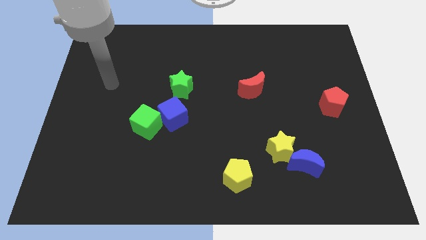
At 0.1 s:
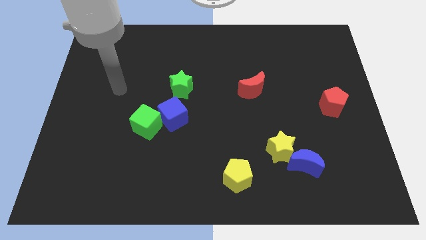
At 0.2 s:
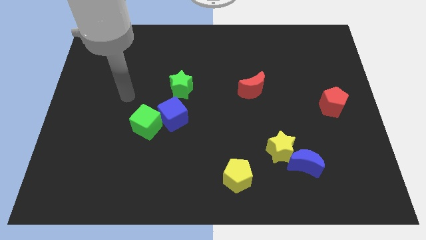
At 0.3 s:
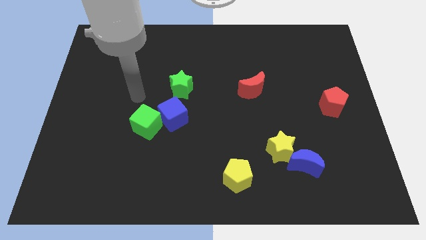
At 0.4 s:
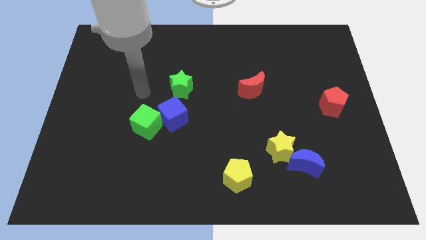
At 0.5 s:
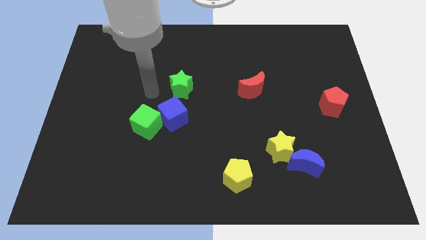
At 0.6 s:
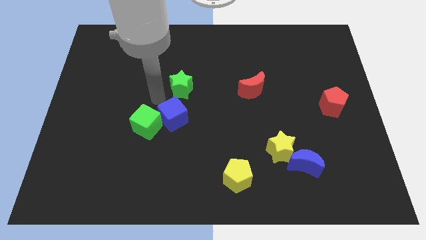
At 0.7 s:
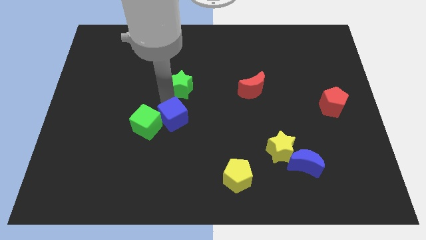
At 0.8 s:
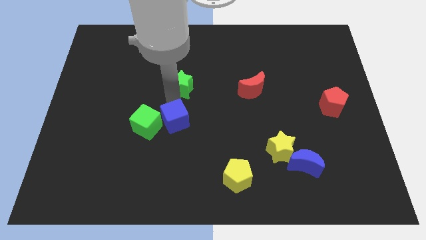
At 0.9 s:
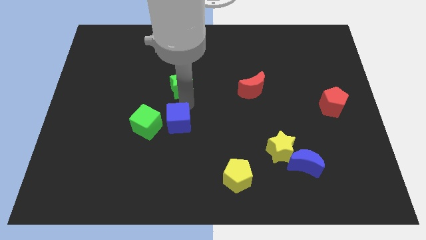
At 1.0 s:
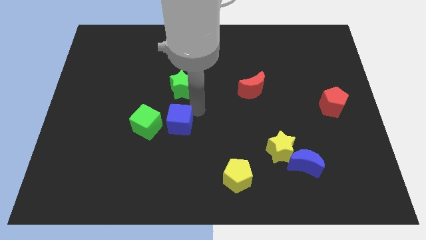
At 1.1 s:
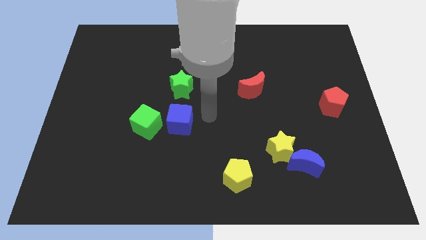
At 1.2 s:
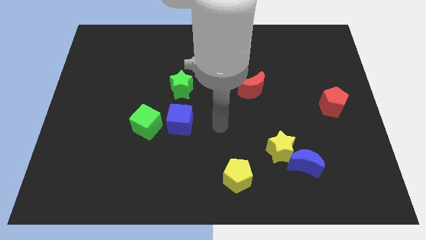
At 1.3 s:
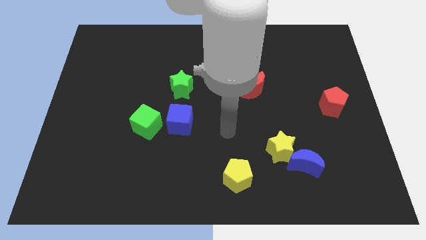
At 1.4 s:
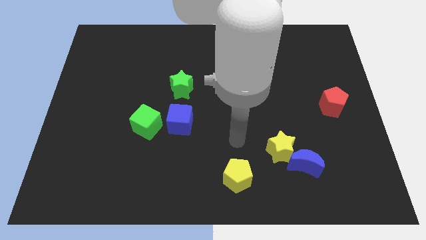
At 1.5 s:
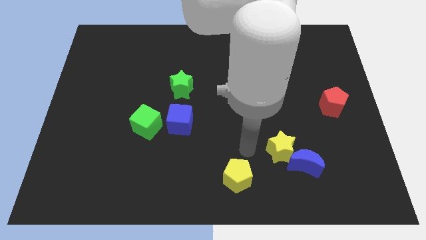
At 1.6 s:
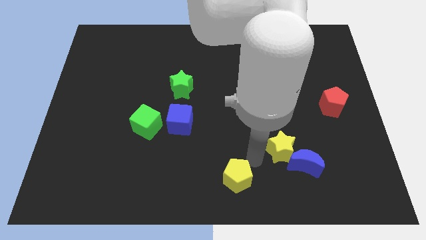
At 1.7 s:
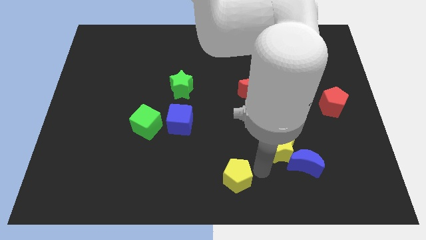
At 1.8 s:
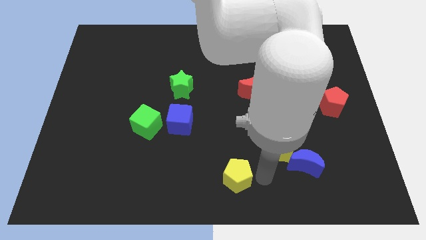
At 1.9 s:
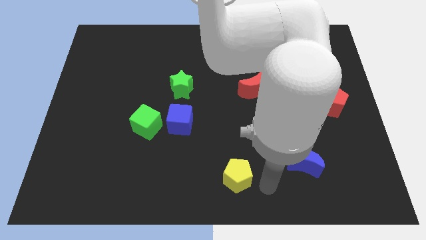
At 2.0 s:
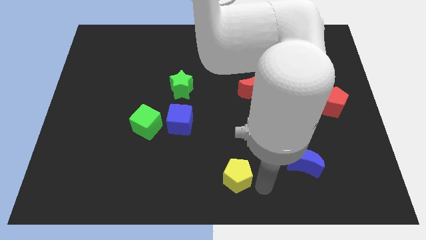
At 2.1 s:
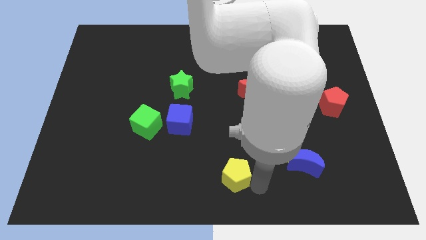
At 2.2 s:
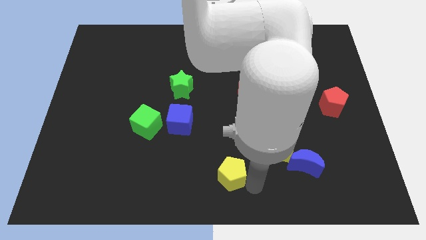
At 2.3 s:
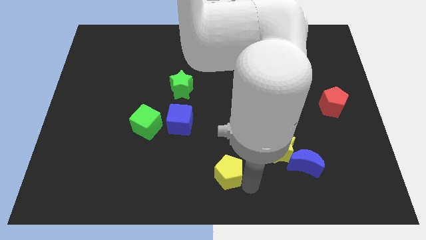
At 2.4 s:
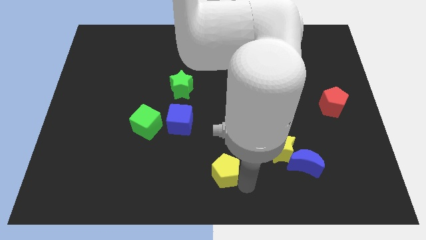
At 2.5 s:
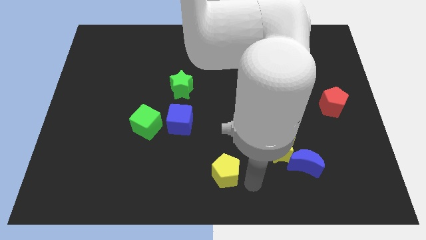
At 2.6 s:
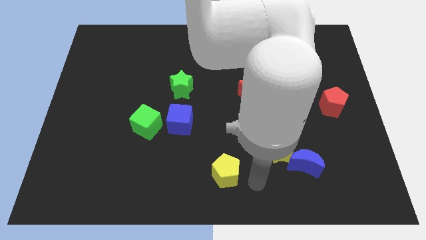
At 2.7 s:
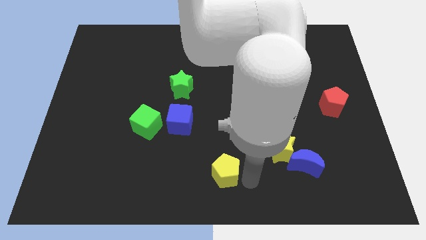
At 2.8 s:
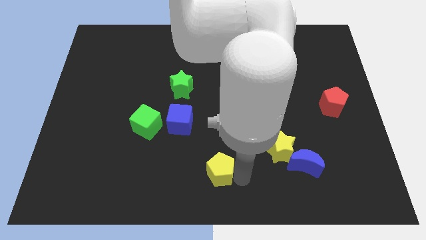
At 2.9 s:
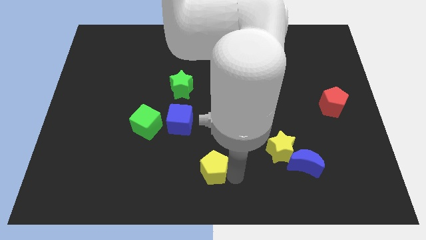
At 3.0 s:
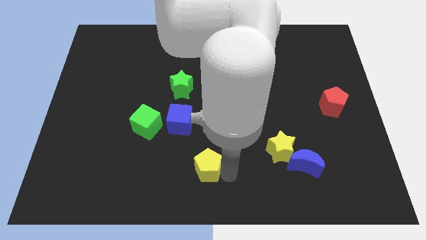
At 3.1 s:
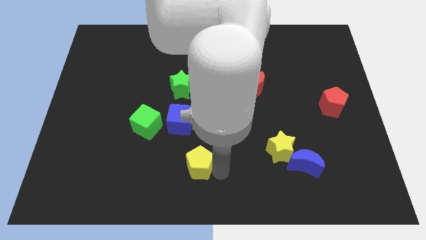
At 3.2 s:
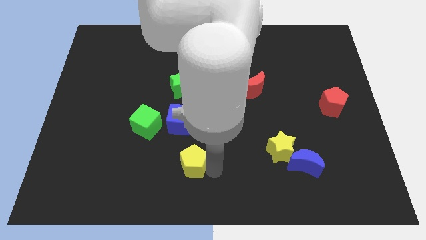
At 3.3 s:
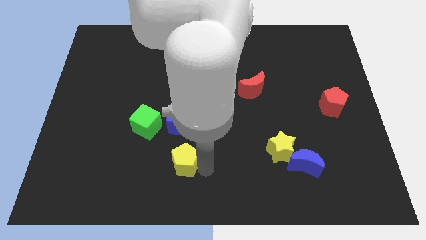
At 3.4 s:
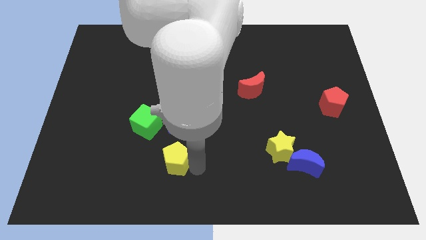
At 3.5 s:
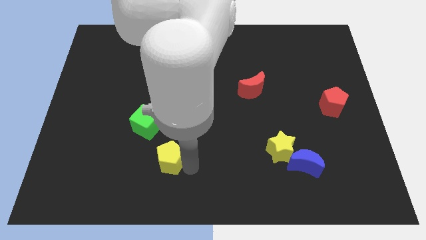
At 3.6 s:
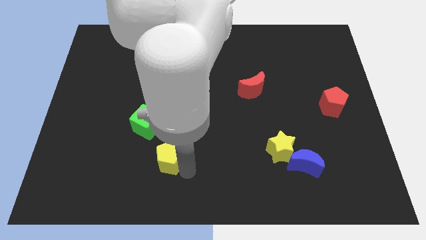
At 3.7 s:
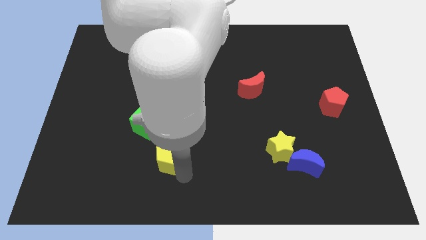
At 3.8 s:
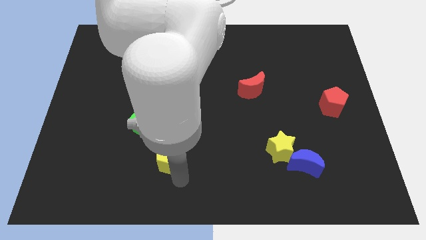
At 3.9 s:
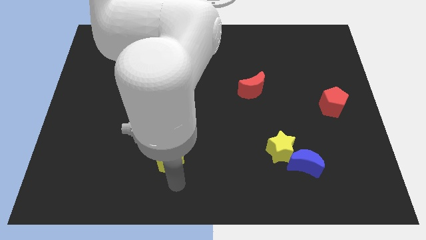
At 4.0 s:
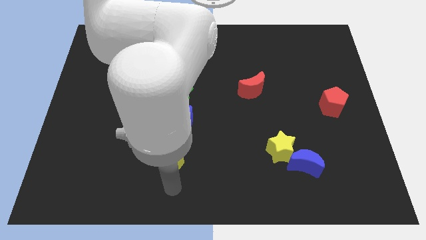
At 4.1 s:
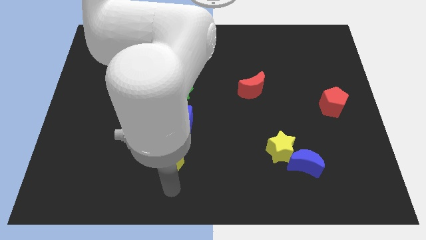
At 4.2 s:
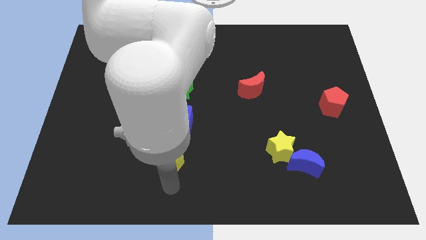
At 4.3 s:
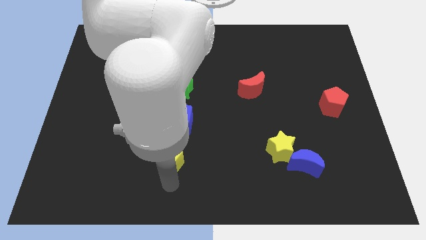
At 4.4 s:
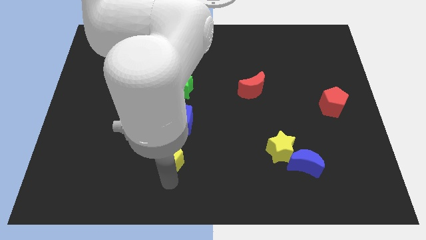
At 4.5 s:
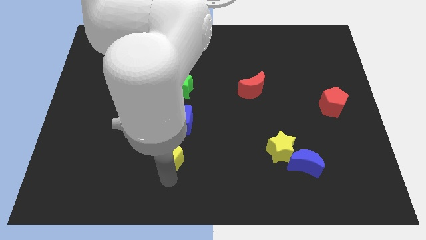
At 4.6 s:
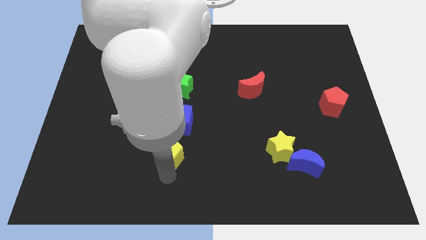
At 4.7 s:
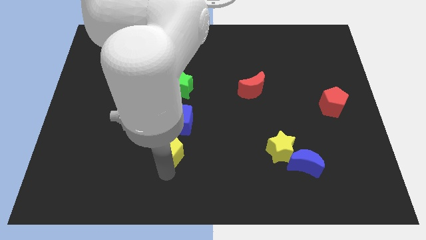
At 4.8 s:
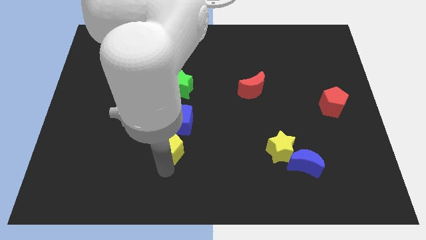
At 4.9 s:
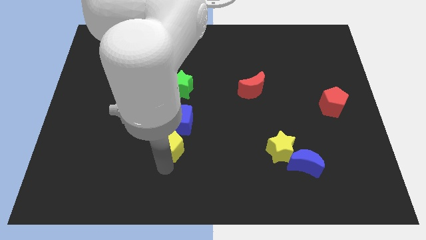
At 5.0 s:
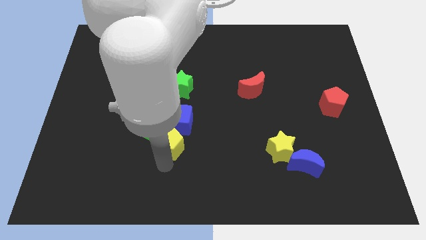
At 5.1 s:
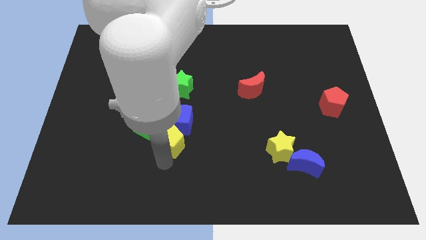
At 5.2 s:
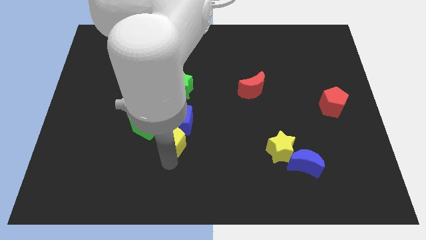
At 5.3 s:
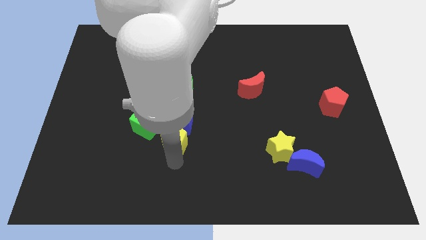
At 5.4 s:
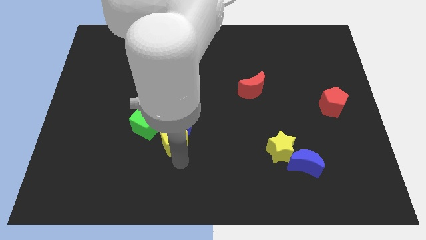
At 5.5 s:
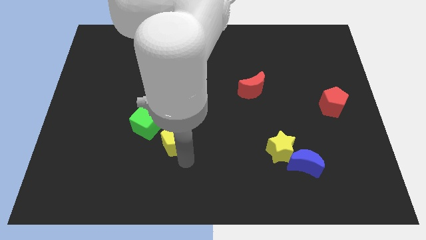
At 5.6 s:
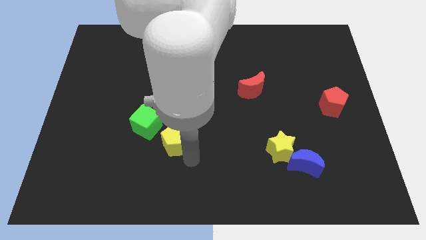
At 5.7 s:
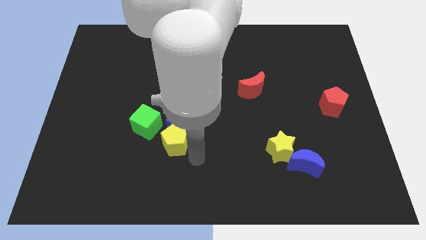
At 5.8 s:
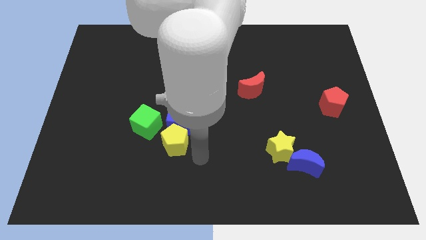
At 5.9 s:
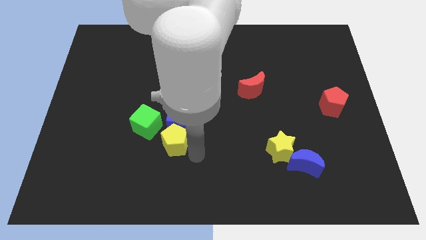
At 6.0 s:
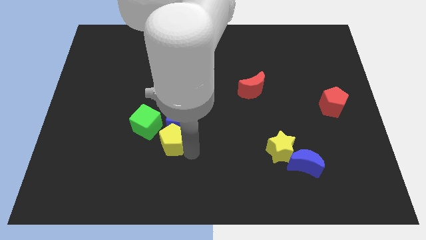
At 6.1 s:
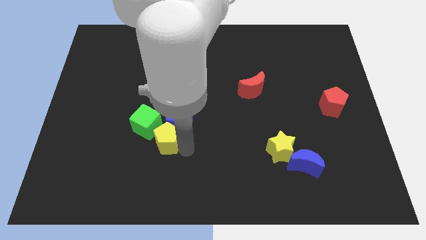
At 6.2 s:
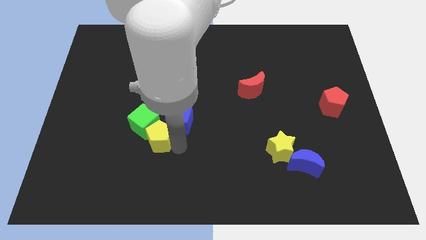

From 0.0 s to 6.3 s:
put the yellow pentagon towards the green cube

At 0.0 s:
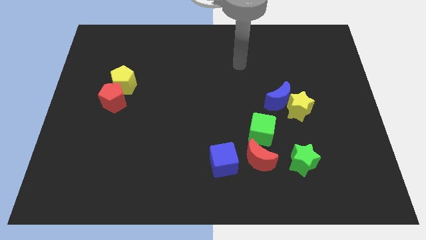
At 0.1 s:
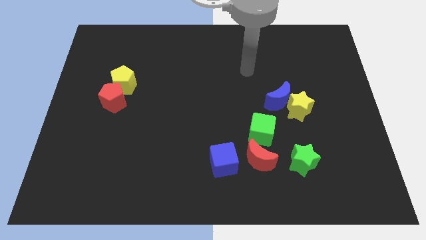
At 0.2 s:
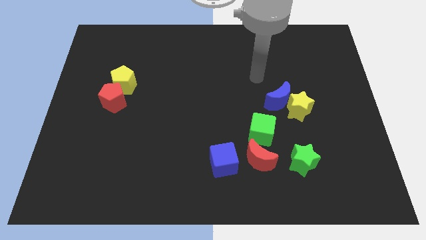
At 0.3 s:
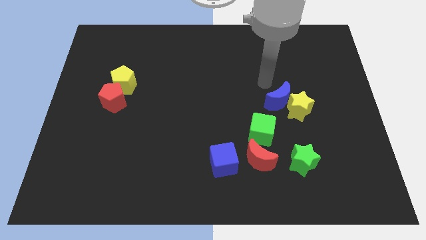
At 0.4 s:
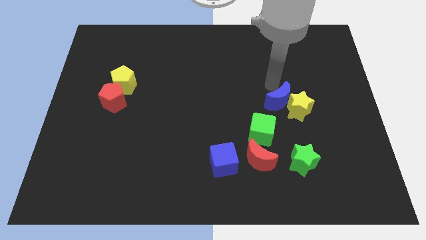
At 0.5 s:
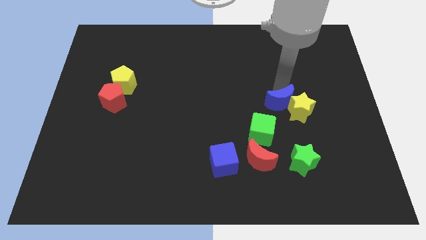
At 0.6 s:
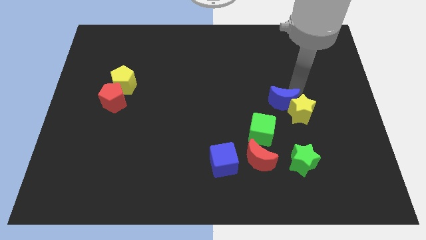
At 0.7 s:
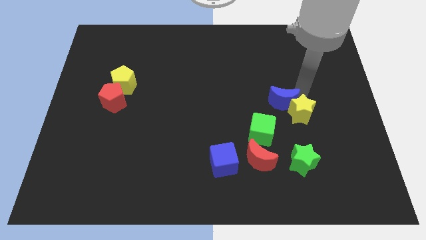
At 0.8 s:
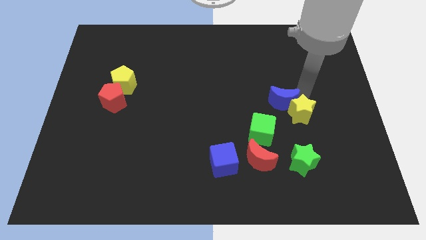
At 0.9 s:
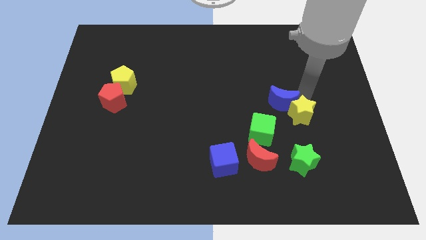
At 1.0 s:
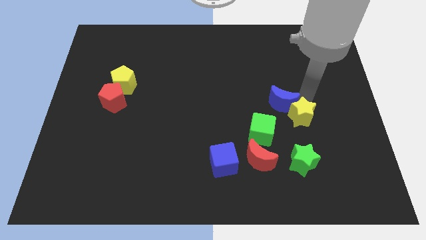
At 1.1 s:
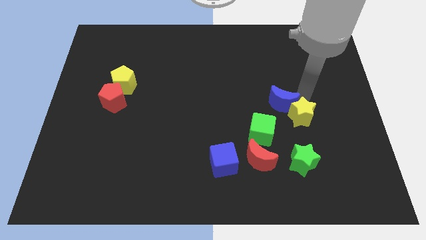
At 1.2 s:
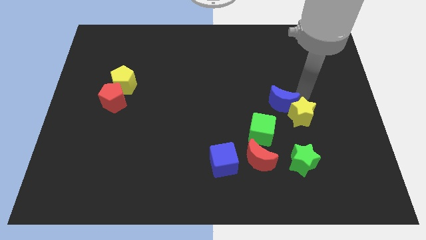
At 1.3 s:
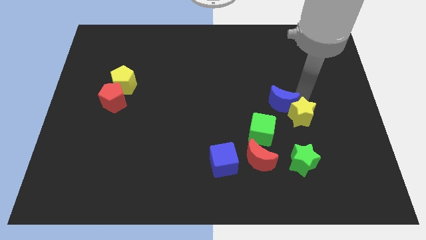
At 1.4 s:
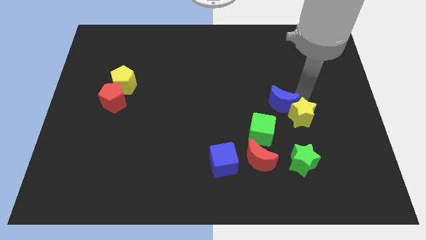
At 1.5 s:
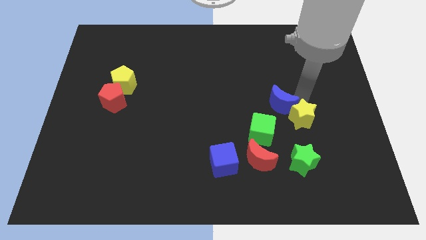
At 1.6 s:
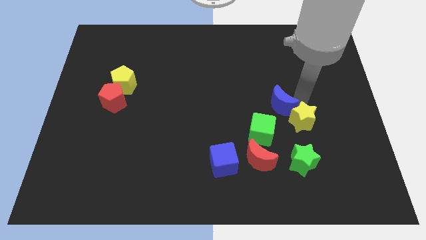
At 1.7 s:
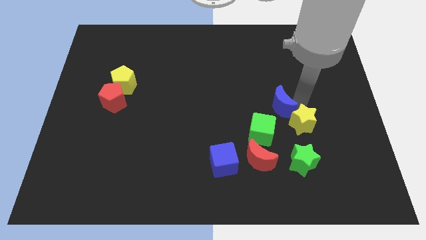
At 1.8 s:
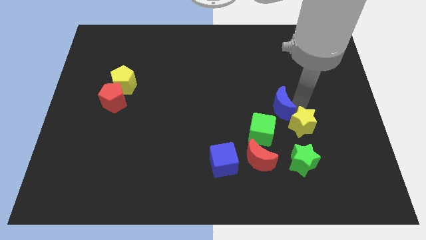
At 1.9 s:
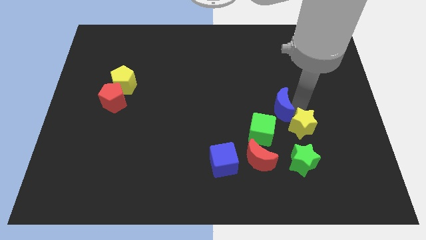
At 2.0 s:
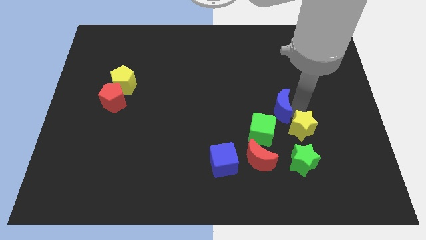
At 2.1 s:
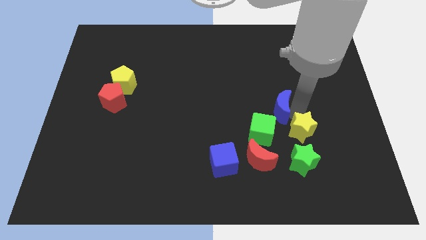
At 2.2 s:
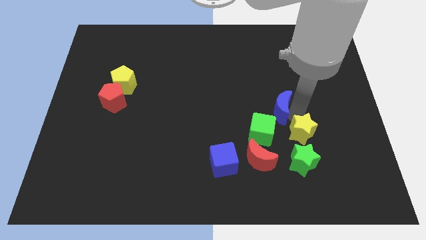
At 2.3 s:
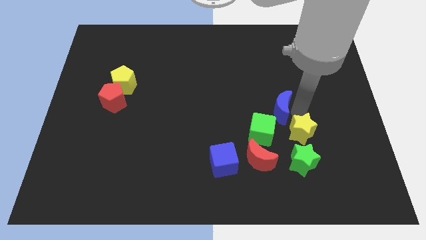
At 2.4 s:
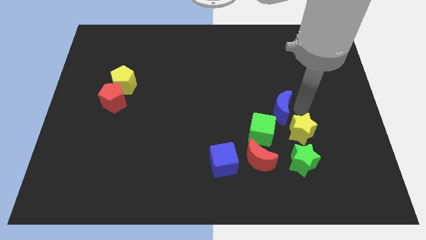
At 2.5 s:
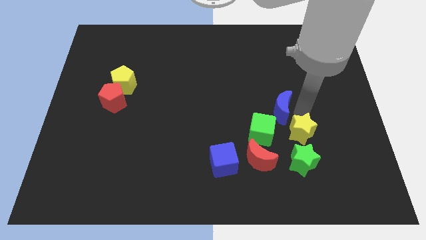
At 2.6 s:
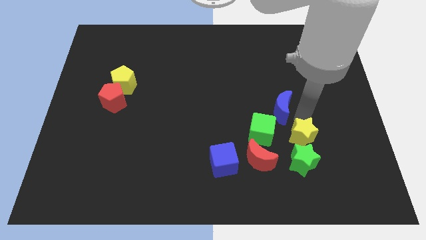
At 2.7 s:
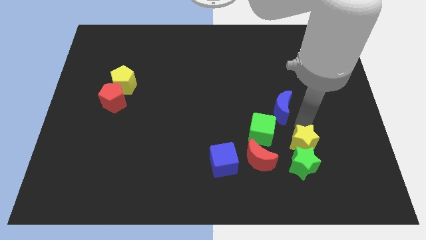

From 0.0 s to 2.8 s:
push the yellow star close to the green star
